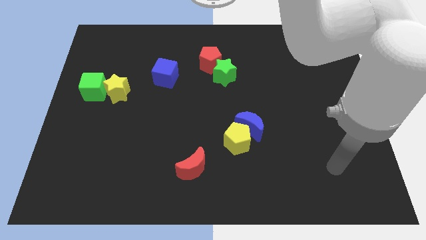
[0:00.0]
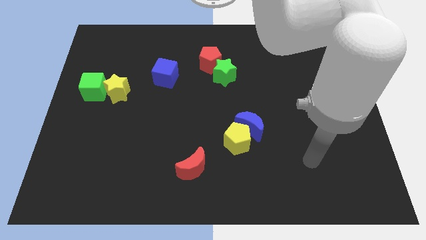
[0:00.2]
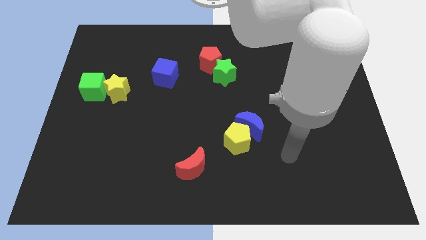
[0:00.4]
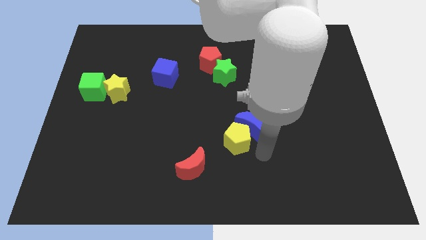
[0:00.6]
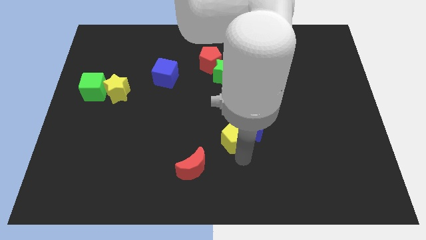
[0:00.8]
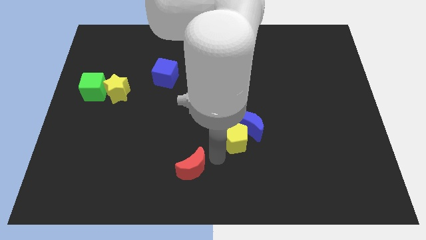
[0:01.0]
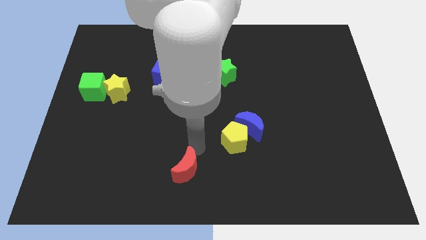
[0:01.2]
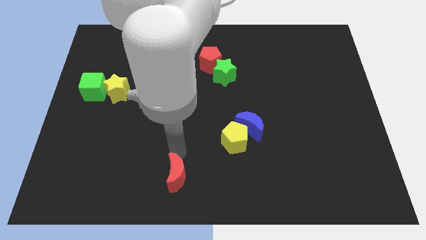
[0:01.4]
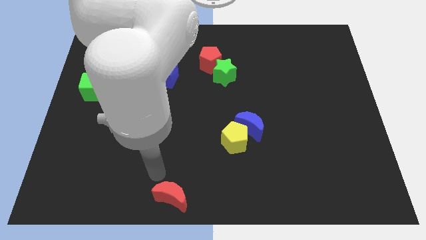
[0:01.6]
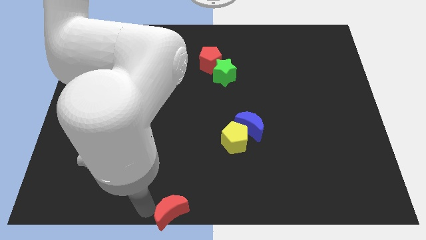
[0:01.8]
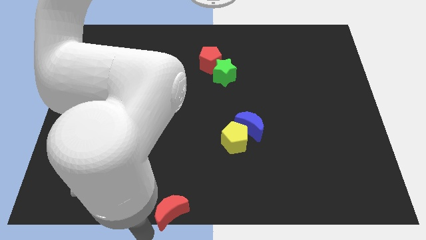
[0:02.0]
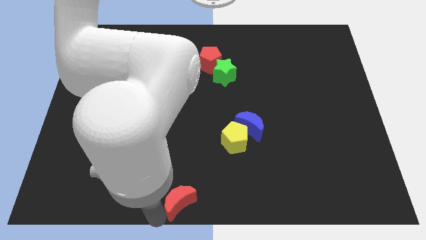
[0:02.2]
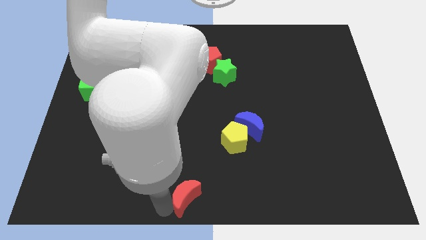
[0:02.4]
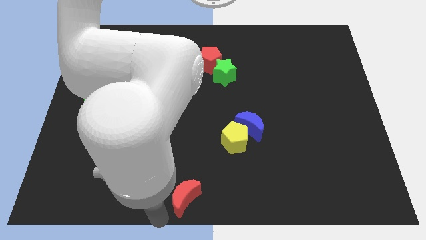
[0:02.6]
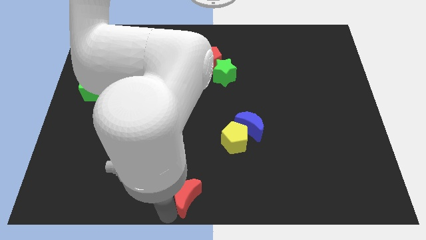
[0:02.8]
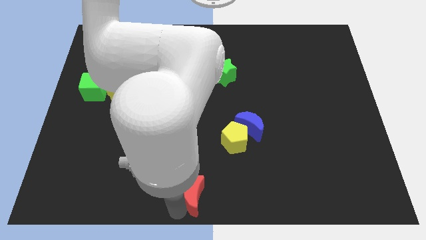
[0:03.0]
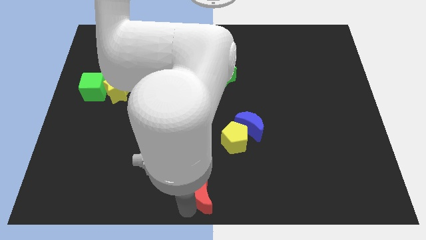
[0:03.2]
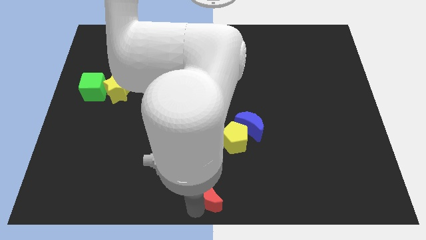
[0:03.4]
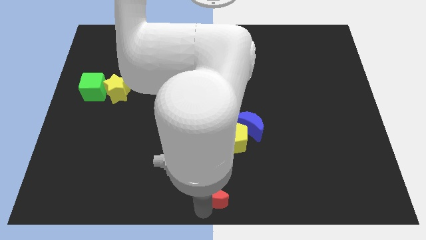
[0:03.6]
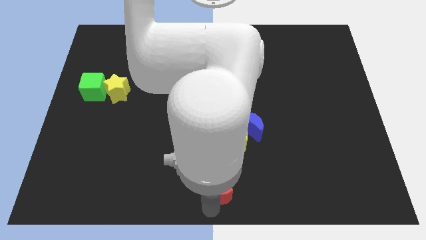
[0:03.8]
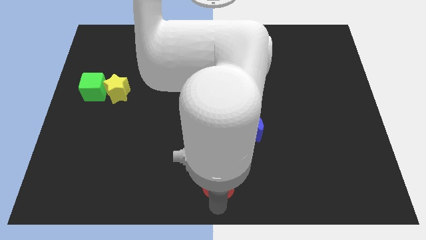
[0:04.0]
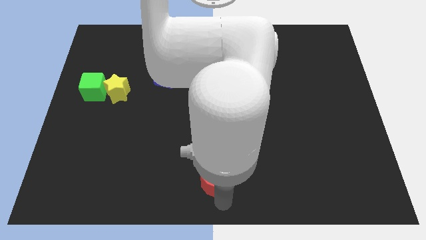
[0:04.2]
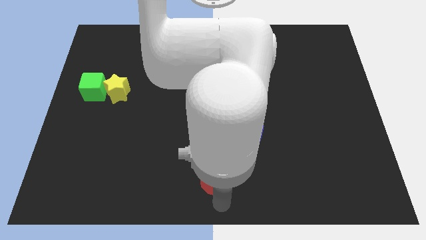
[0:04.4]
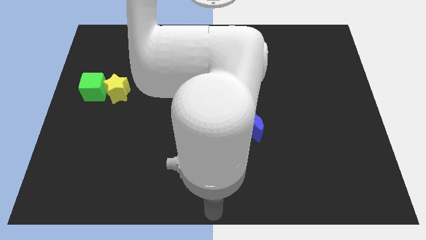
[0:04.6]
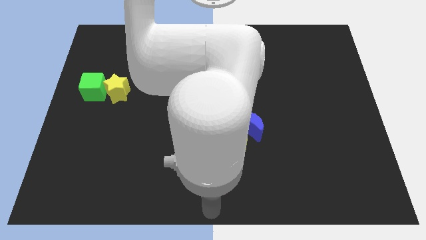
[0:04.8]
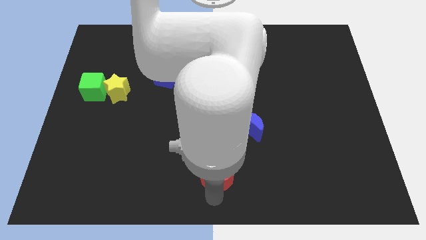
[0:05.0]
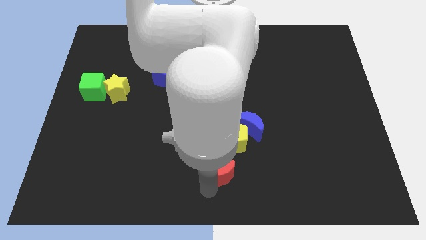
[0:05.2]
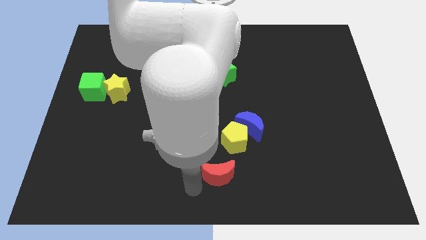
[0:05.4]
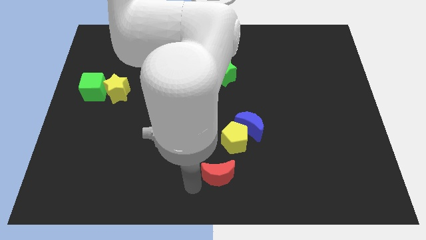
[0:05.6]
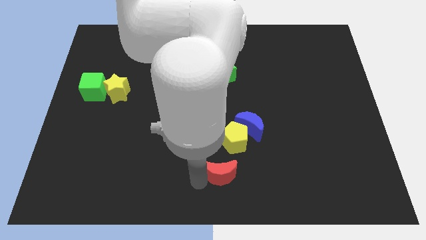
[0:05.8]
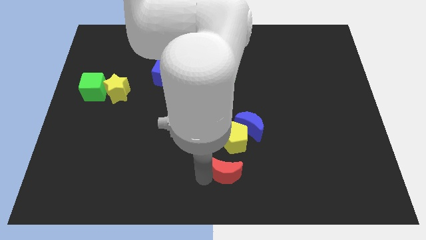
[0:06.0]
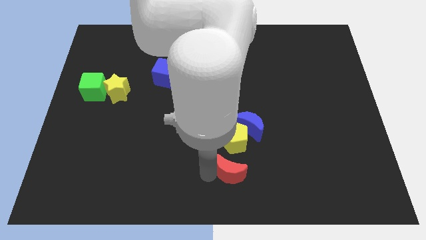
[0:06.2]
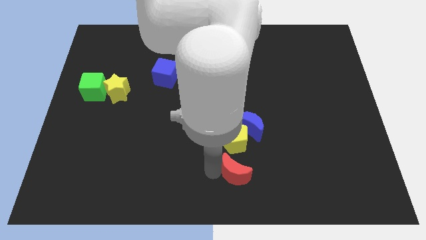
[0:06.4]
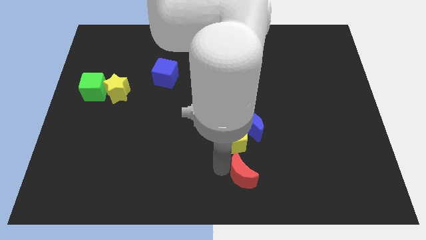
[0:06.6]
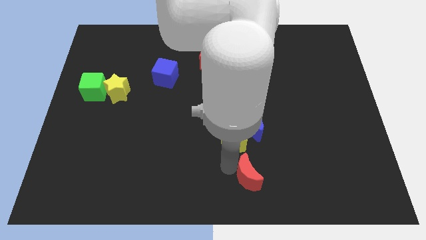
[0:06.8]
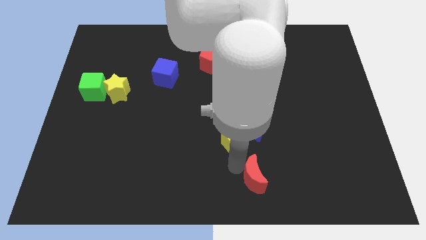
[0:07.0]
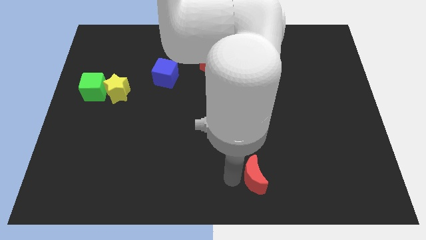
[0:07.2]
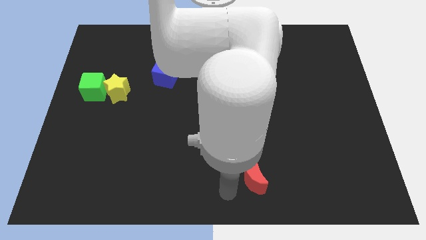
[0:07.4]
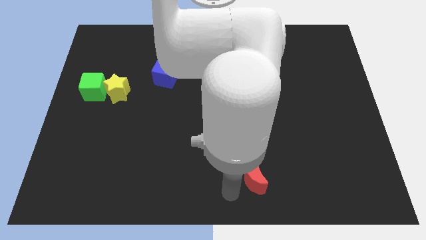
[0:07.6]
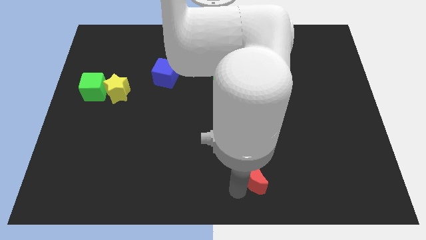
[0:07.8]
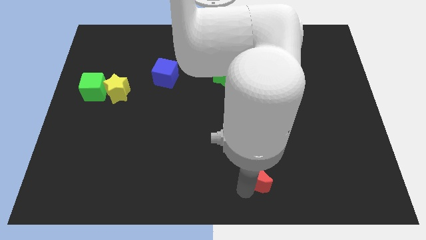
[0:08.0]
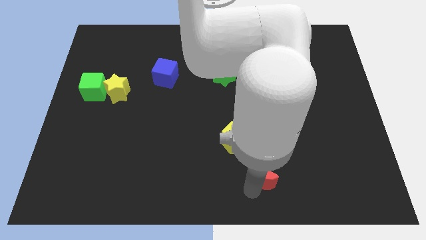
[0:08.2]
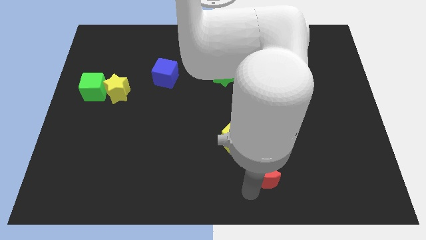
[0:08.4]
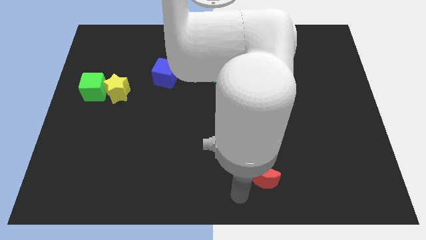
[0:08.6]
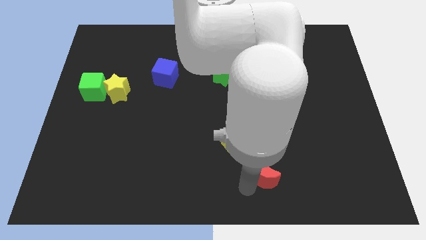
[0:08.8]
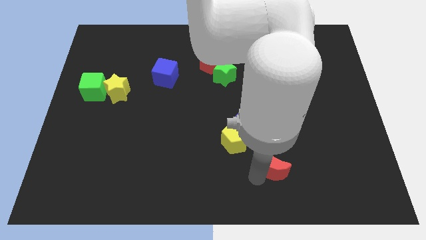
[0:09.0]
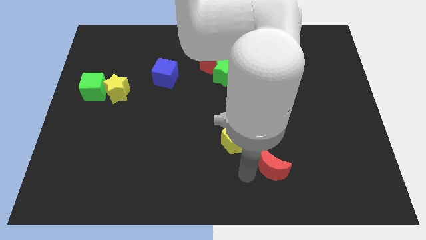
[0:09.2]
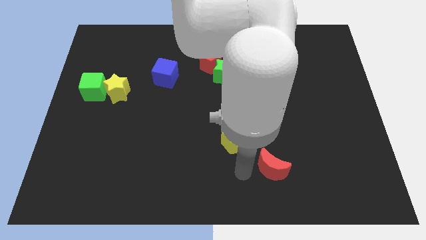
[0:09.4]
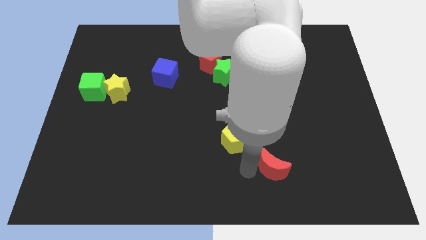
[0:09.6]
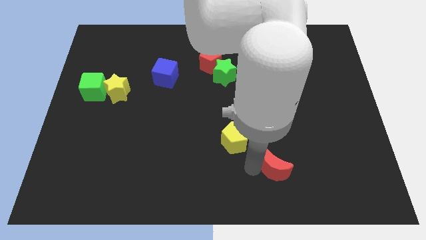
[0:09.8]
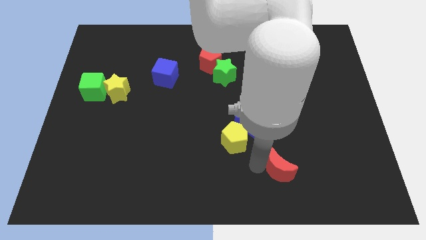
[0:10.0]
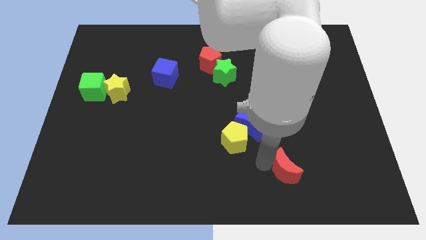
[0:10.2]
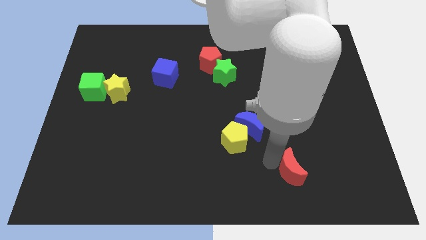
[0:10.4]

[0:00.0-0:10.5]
slide the red moon to the right

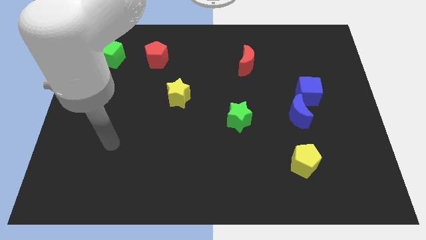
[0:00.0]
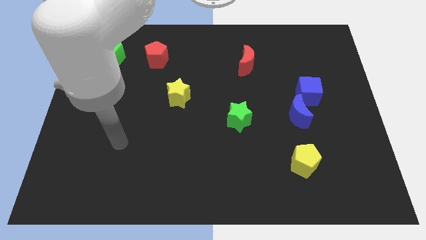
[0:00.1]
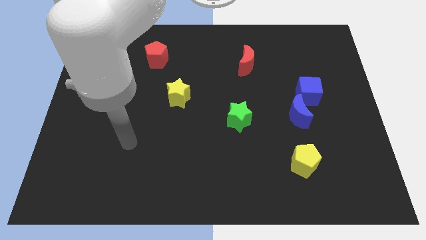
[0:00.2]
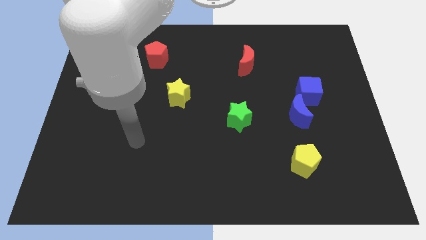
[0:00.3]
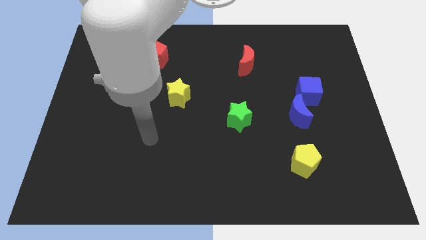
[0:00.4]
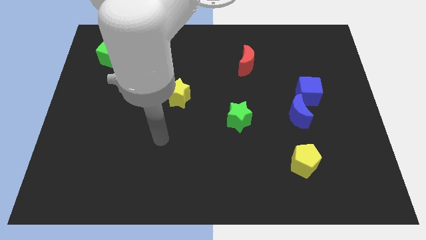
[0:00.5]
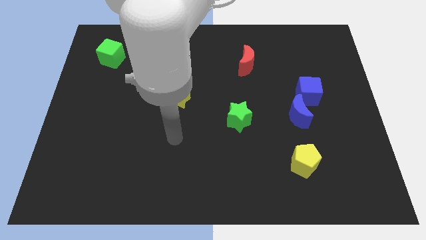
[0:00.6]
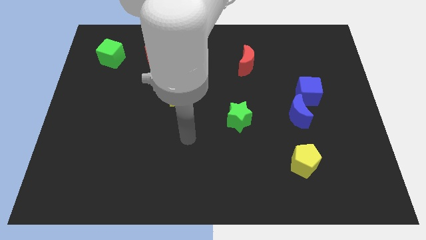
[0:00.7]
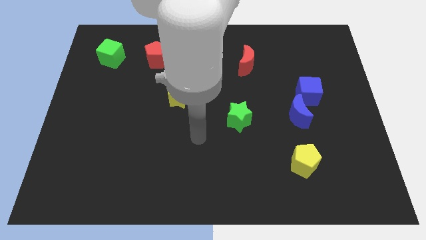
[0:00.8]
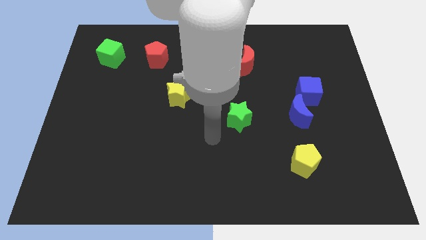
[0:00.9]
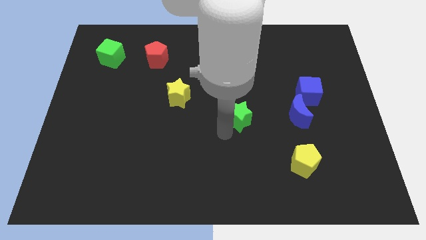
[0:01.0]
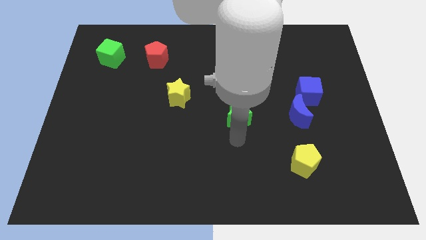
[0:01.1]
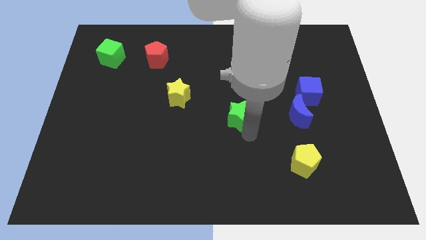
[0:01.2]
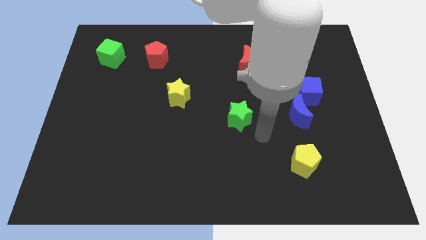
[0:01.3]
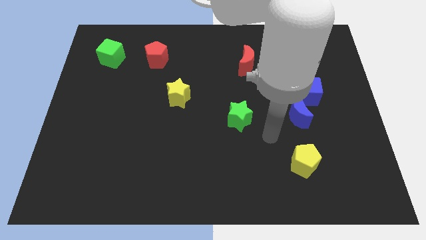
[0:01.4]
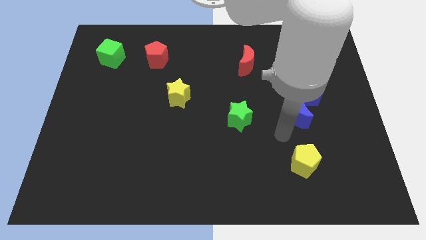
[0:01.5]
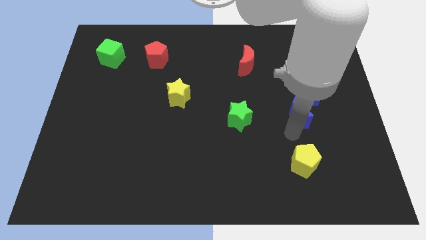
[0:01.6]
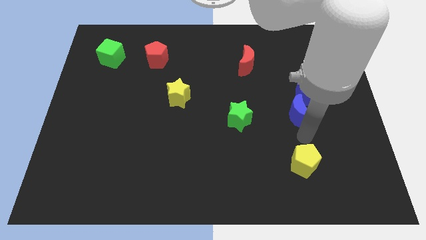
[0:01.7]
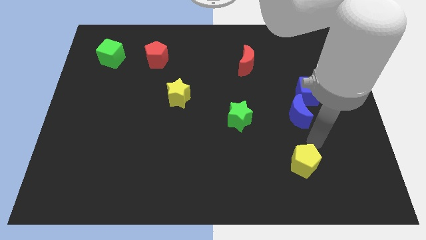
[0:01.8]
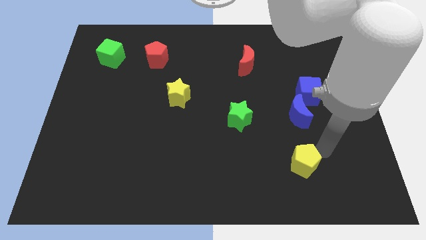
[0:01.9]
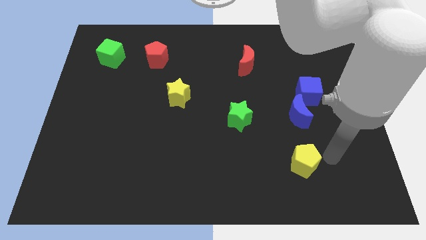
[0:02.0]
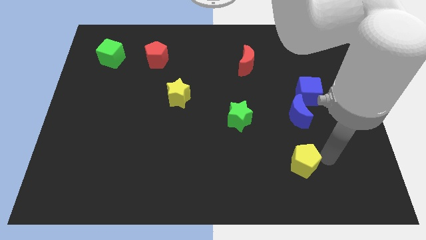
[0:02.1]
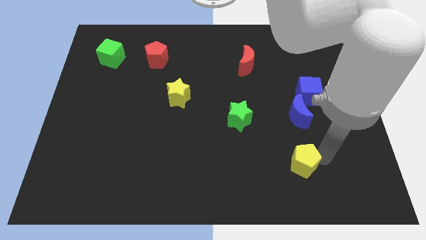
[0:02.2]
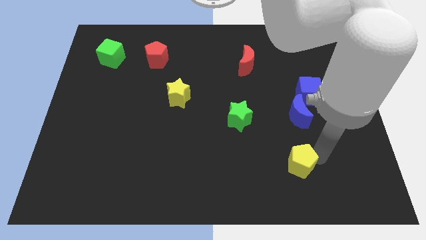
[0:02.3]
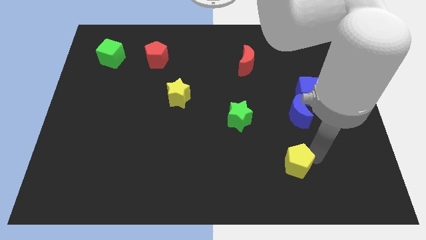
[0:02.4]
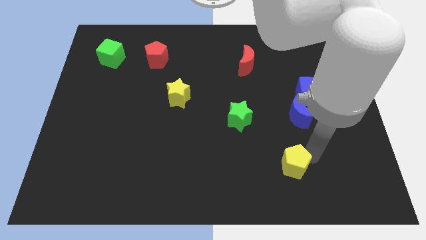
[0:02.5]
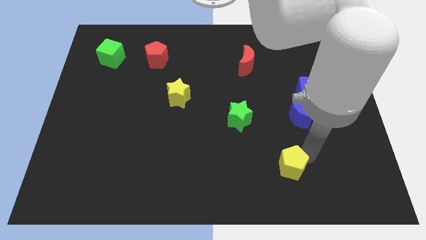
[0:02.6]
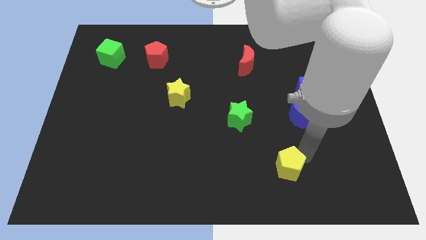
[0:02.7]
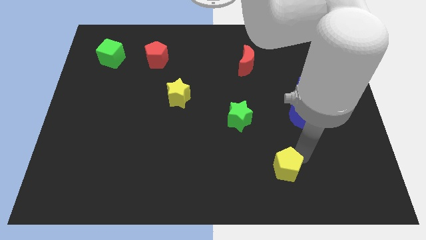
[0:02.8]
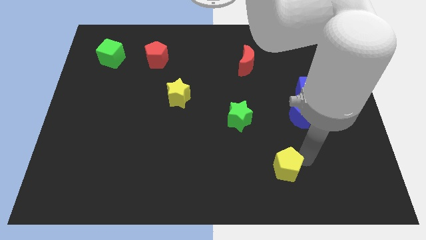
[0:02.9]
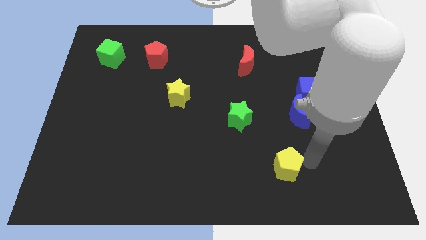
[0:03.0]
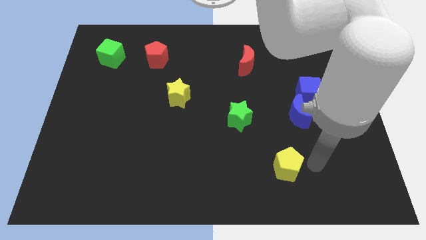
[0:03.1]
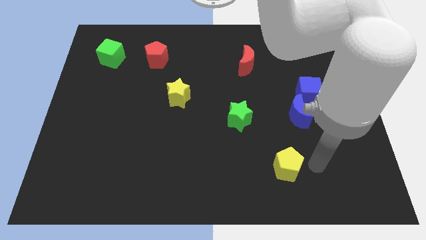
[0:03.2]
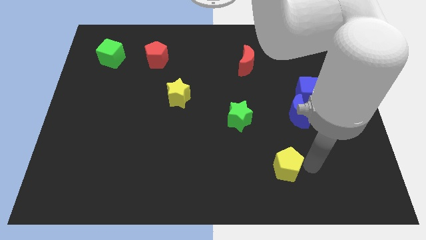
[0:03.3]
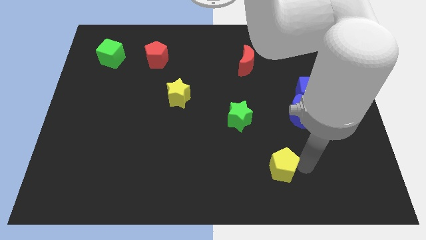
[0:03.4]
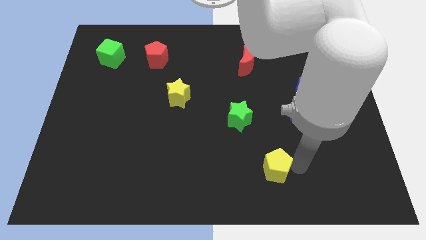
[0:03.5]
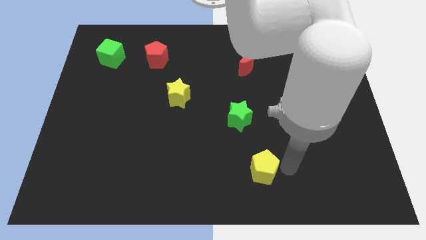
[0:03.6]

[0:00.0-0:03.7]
slightly slide the yellow pentagon to the left
